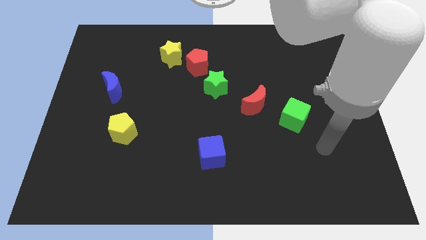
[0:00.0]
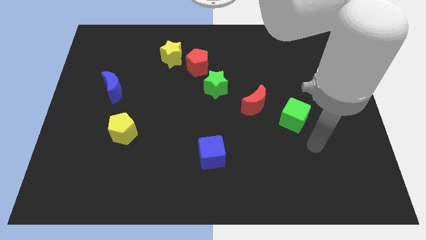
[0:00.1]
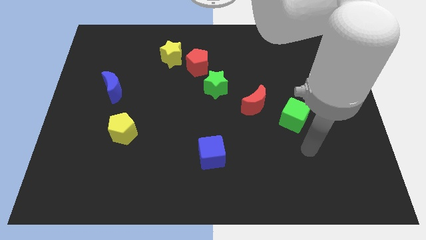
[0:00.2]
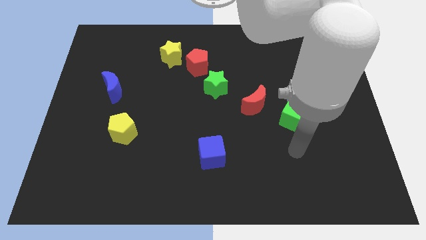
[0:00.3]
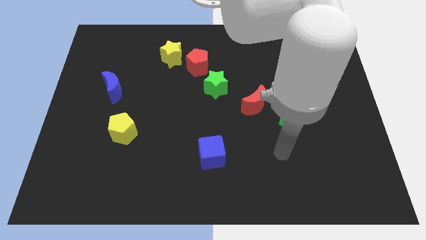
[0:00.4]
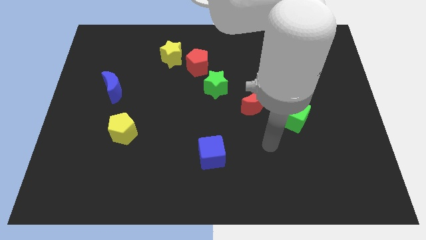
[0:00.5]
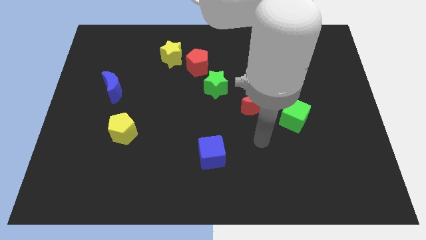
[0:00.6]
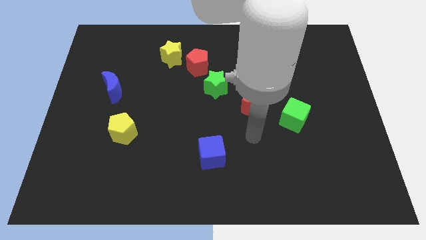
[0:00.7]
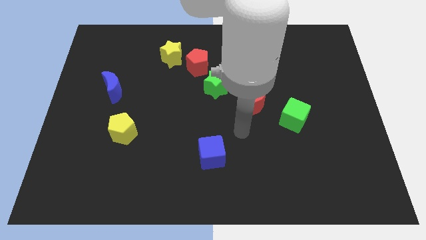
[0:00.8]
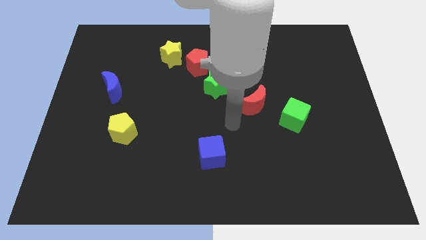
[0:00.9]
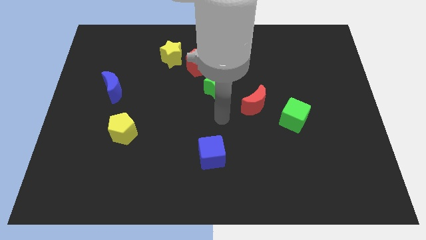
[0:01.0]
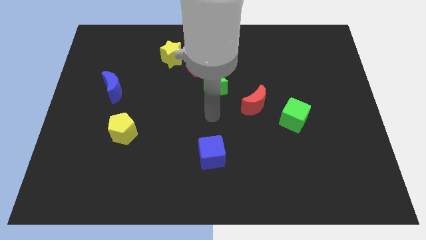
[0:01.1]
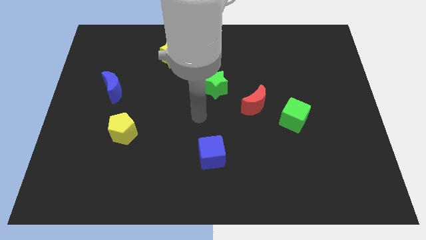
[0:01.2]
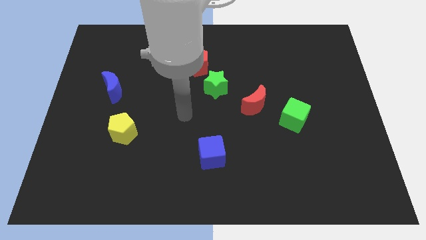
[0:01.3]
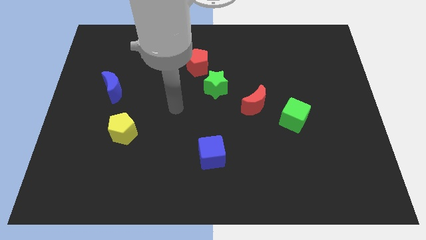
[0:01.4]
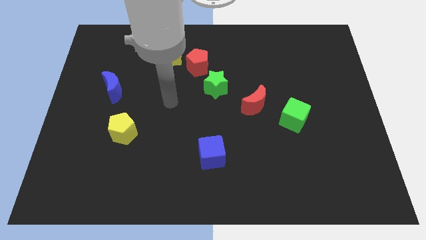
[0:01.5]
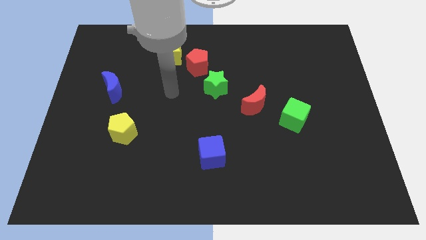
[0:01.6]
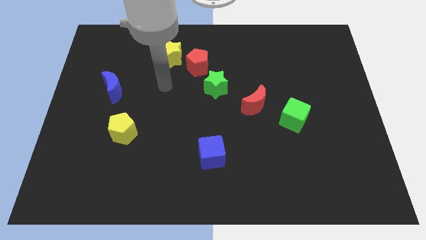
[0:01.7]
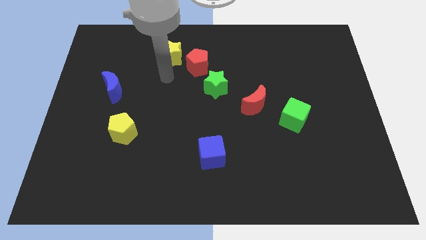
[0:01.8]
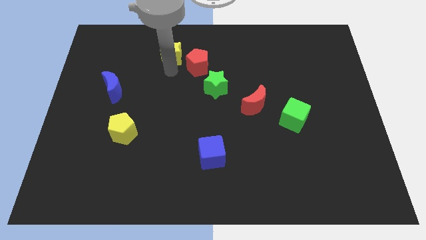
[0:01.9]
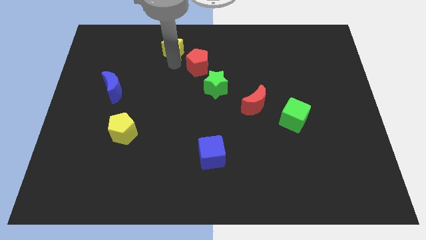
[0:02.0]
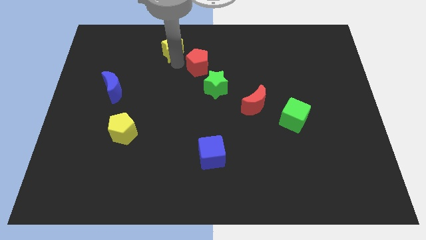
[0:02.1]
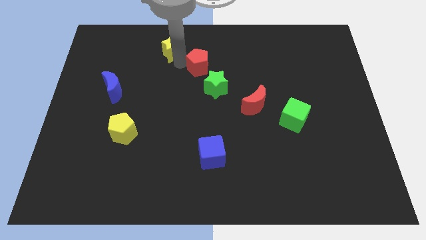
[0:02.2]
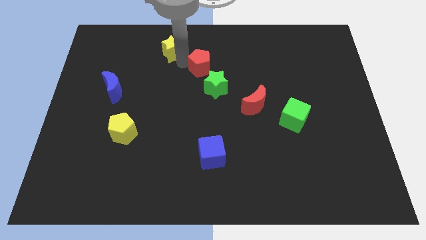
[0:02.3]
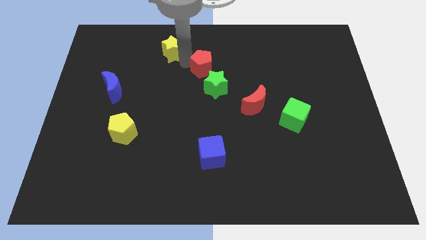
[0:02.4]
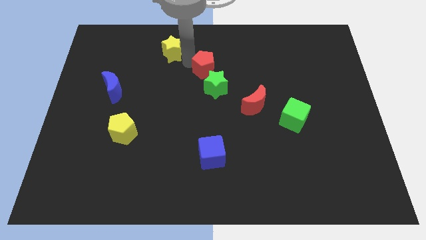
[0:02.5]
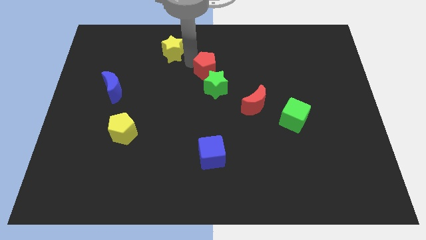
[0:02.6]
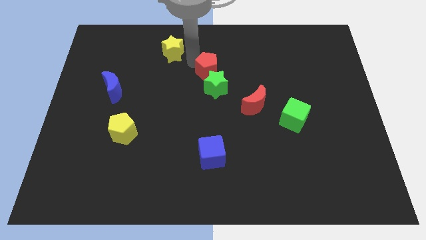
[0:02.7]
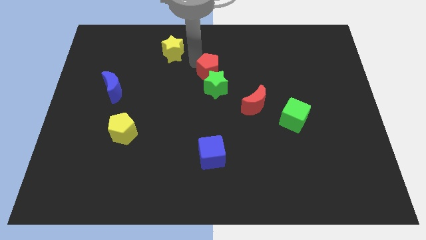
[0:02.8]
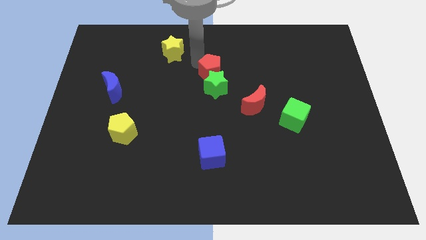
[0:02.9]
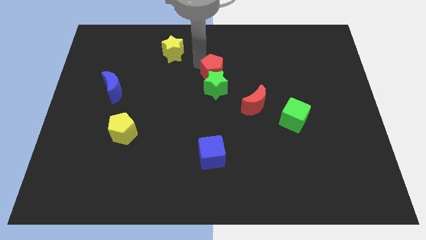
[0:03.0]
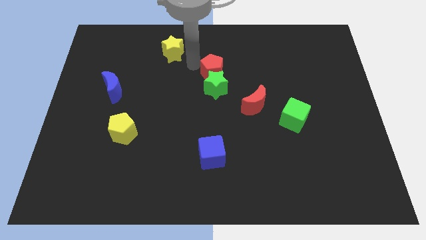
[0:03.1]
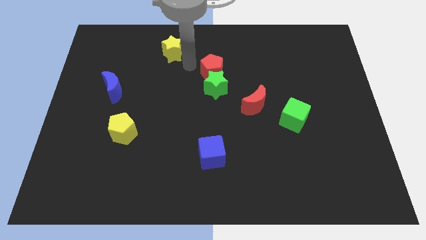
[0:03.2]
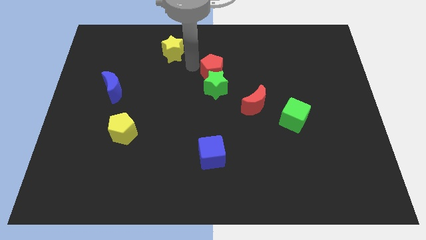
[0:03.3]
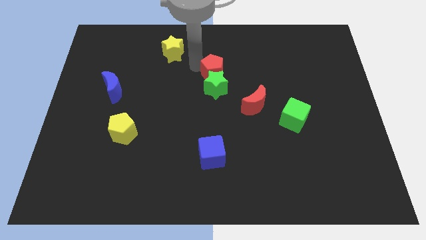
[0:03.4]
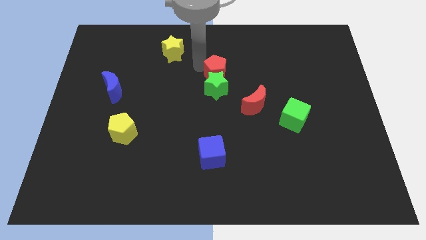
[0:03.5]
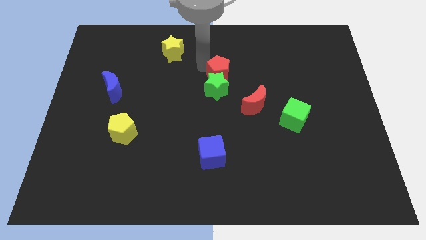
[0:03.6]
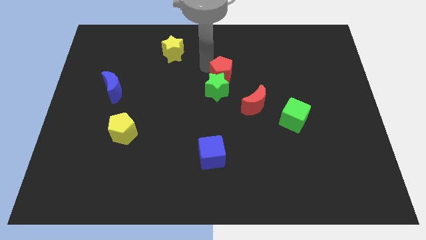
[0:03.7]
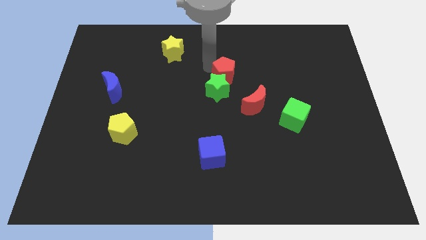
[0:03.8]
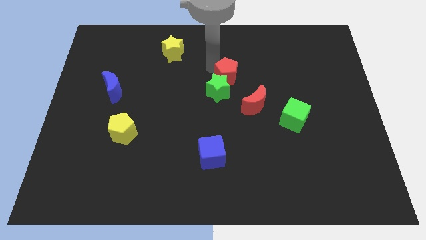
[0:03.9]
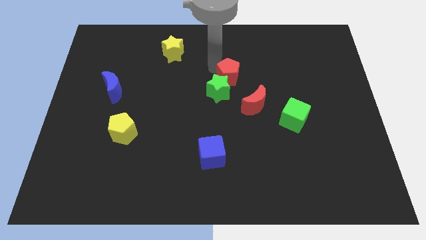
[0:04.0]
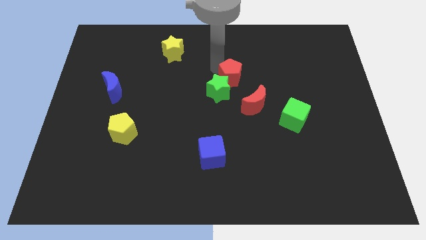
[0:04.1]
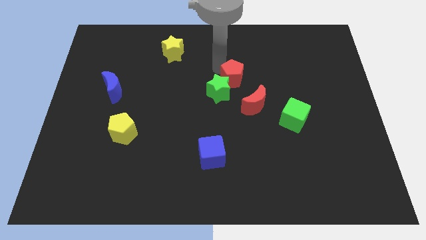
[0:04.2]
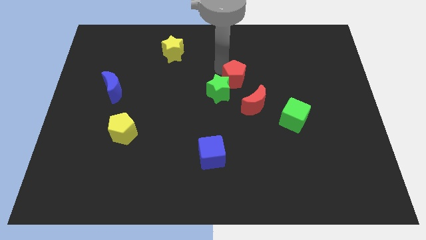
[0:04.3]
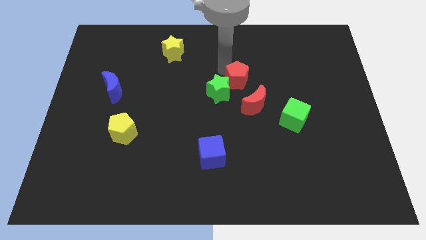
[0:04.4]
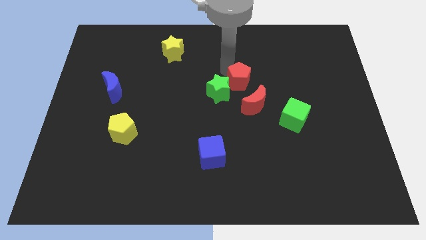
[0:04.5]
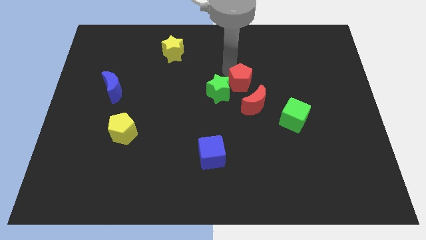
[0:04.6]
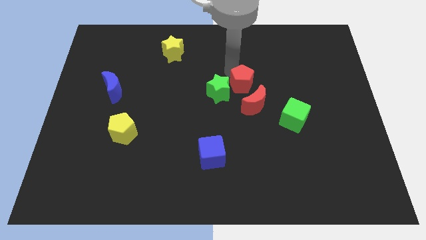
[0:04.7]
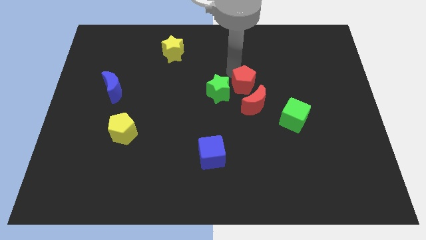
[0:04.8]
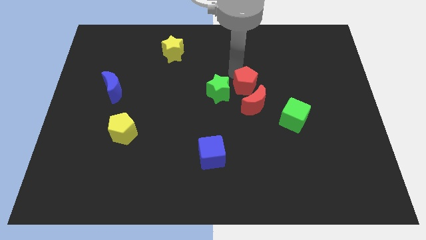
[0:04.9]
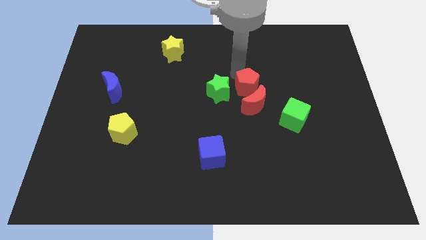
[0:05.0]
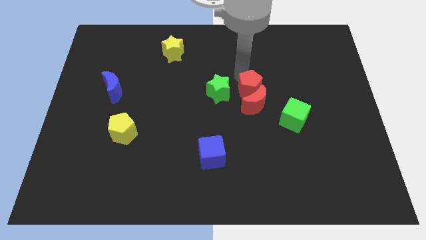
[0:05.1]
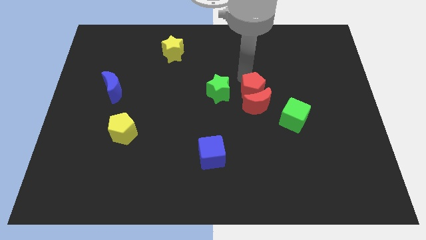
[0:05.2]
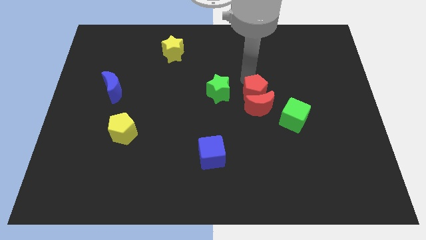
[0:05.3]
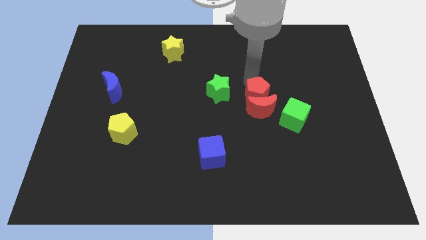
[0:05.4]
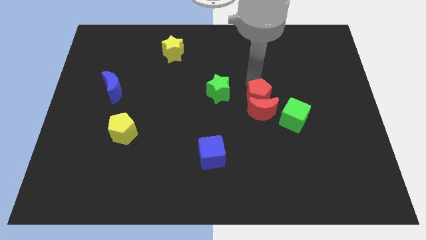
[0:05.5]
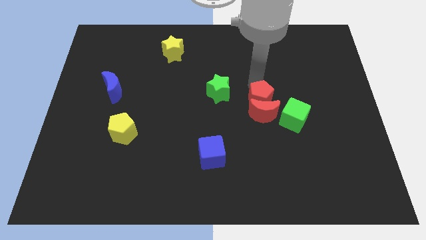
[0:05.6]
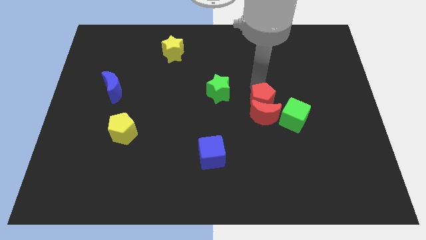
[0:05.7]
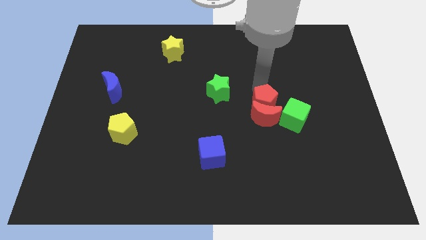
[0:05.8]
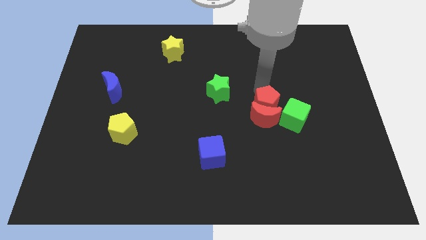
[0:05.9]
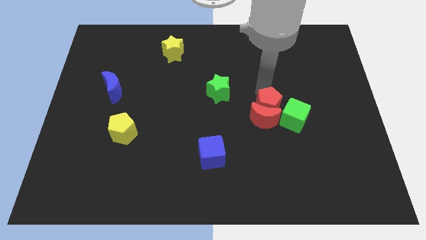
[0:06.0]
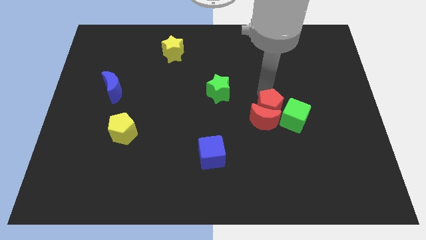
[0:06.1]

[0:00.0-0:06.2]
move the red pentagon to the green cube

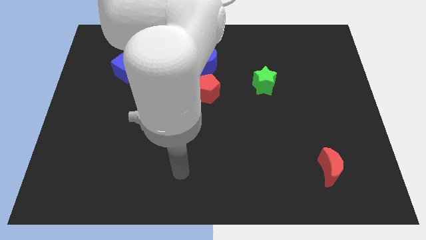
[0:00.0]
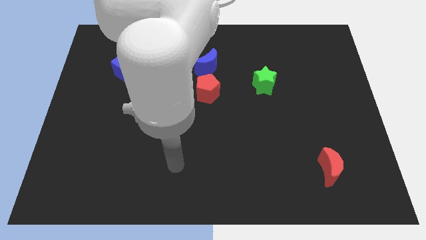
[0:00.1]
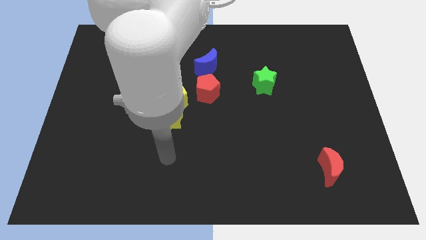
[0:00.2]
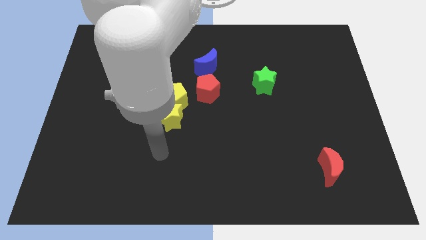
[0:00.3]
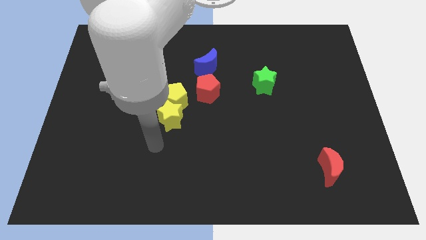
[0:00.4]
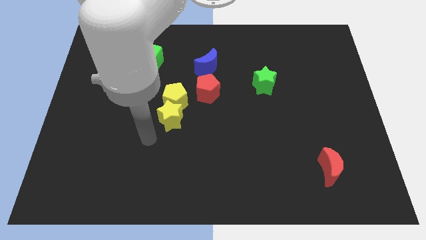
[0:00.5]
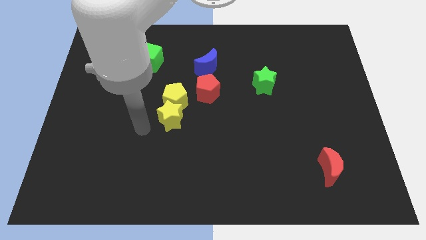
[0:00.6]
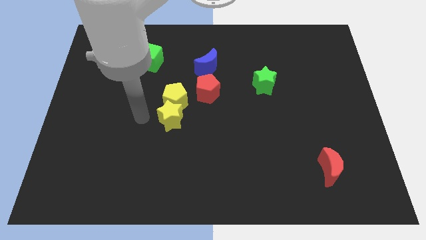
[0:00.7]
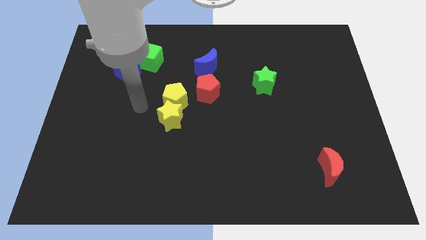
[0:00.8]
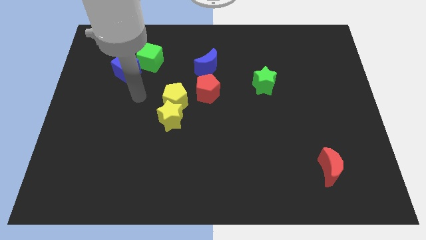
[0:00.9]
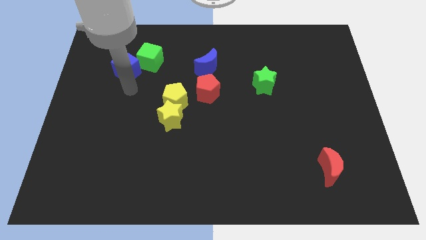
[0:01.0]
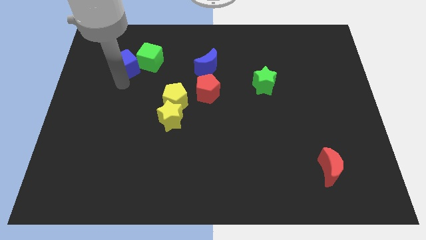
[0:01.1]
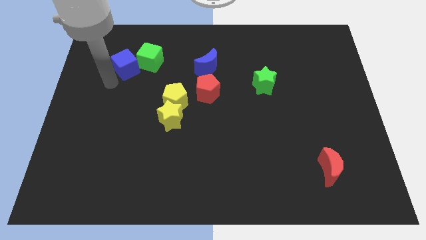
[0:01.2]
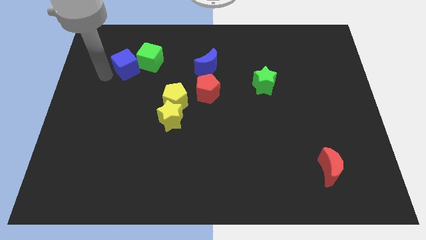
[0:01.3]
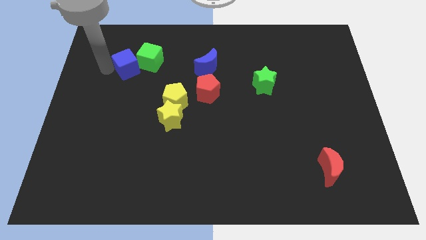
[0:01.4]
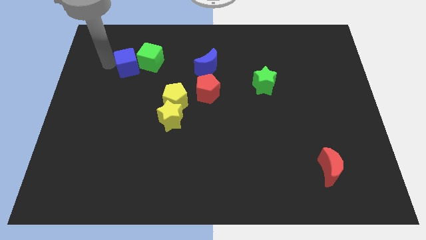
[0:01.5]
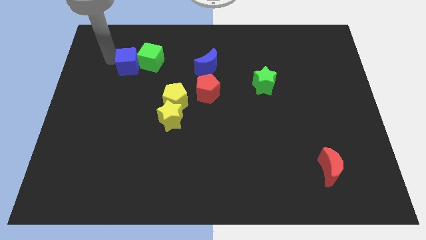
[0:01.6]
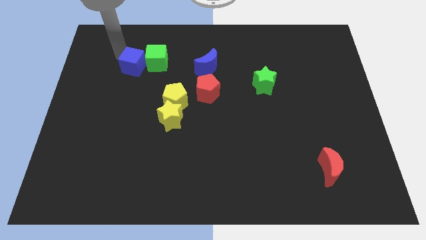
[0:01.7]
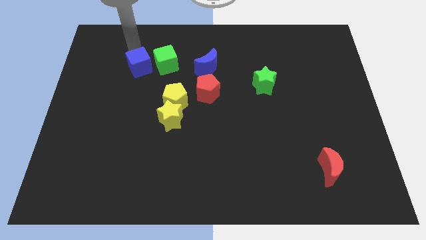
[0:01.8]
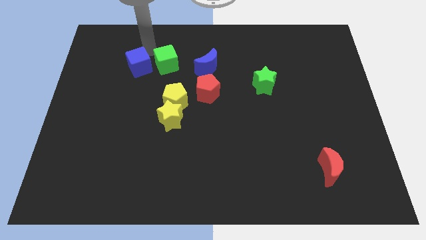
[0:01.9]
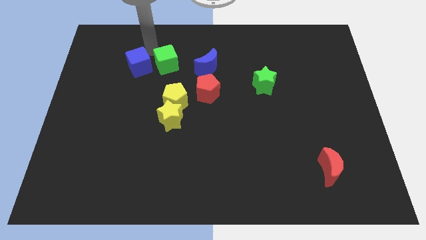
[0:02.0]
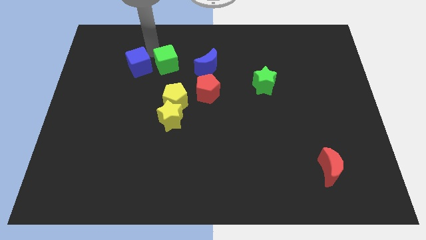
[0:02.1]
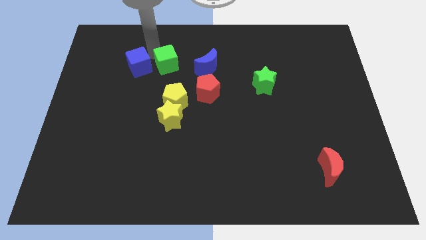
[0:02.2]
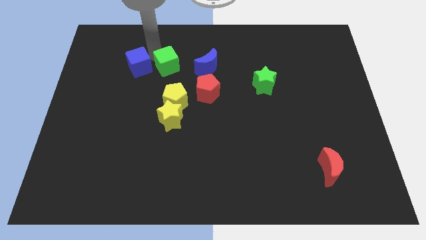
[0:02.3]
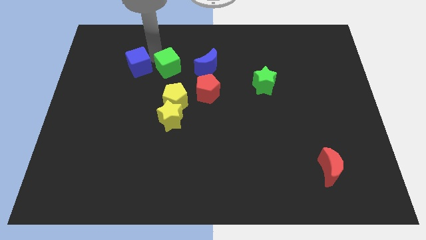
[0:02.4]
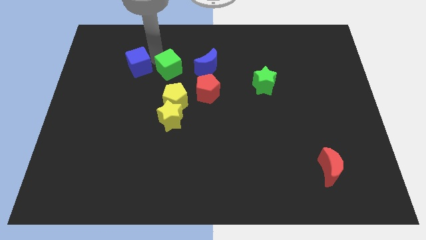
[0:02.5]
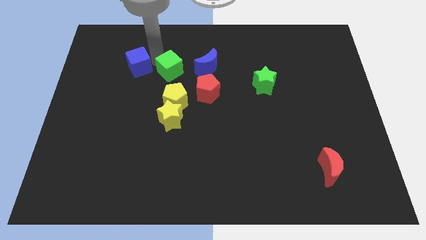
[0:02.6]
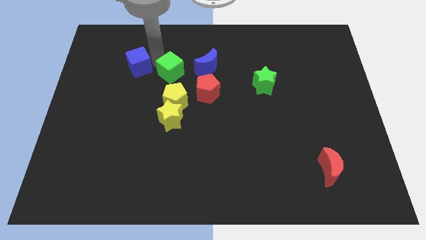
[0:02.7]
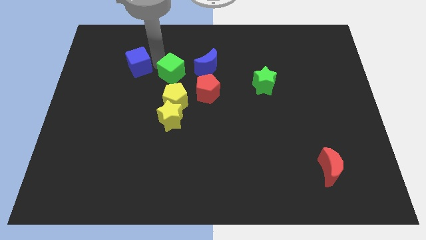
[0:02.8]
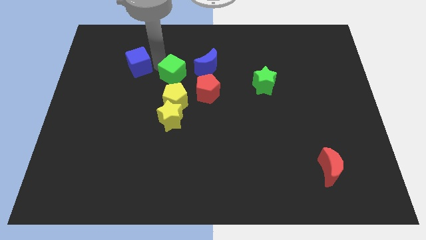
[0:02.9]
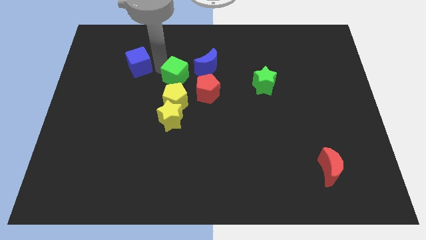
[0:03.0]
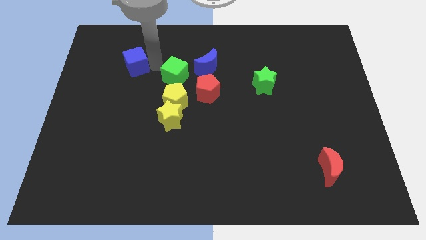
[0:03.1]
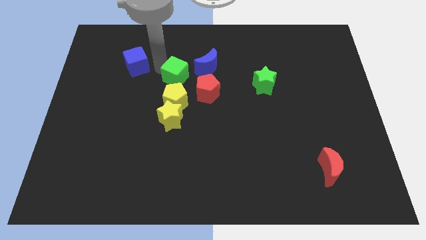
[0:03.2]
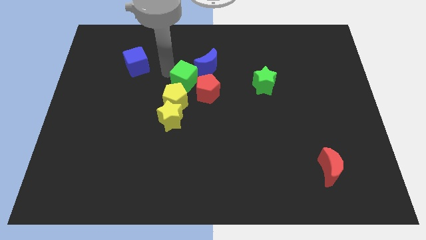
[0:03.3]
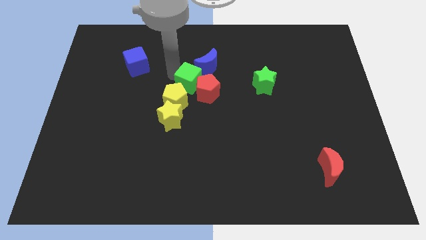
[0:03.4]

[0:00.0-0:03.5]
put the green cube next to the red pentagon
